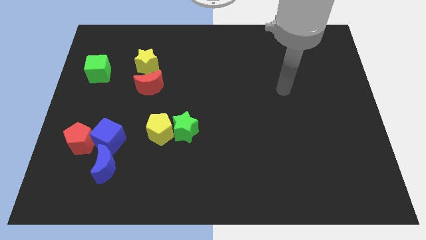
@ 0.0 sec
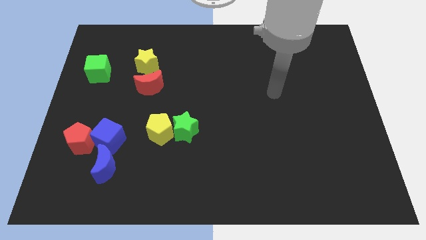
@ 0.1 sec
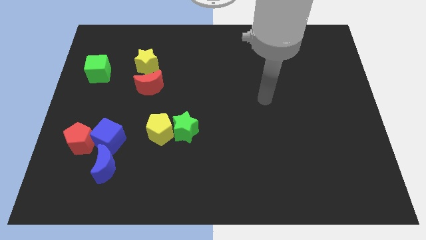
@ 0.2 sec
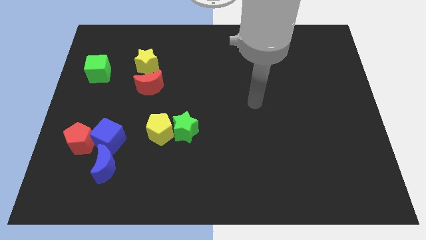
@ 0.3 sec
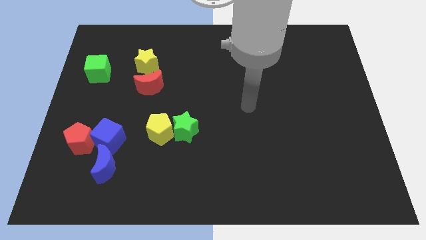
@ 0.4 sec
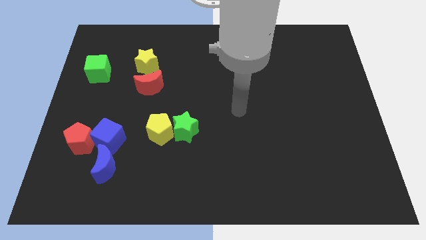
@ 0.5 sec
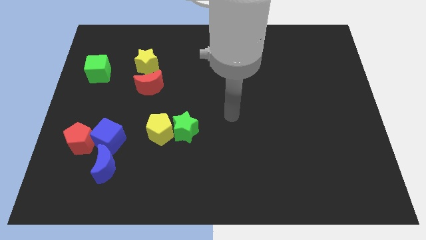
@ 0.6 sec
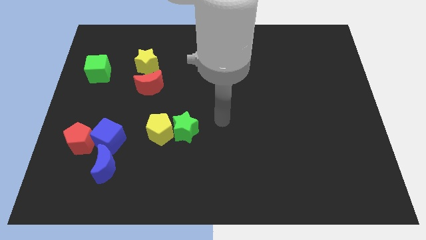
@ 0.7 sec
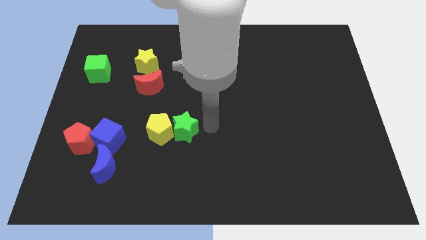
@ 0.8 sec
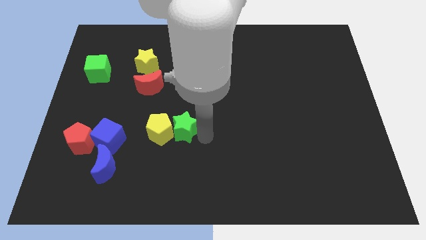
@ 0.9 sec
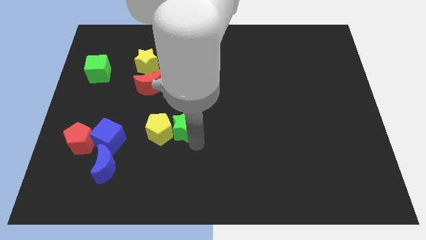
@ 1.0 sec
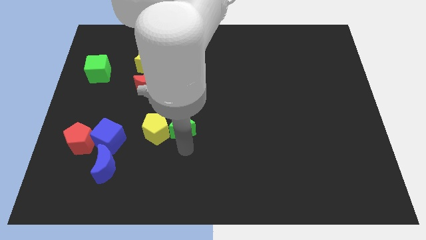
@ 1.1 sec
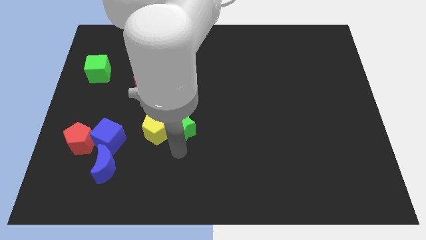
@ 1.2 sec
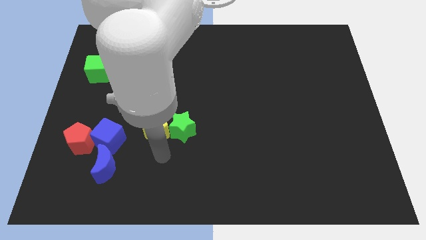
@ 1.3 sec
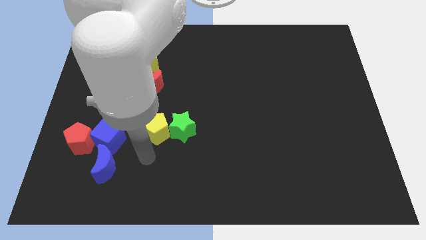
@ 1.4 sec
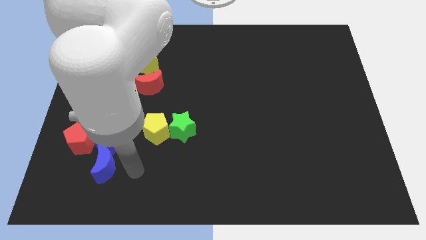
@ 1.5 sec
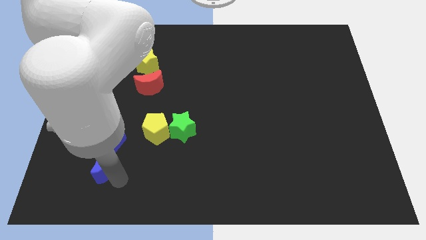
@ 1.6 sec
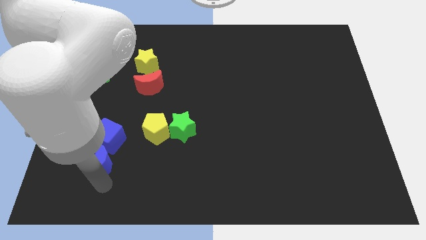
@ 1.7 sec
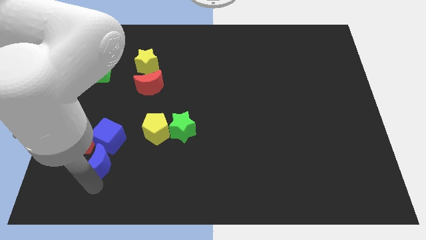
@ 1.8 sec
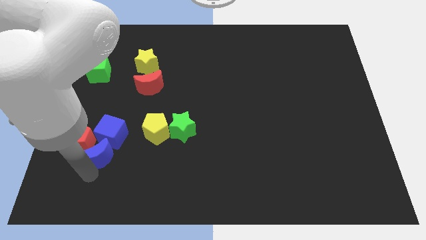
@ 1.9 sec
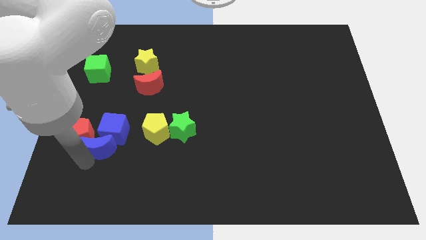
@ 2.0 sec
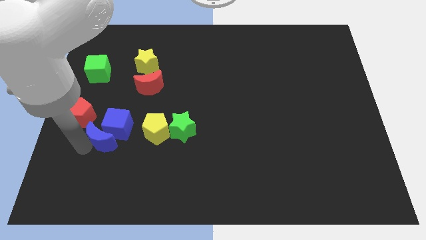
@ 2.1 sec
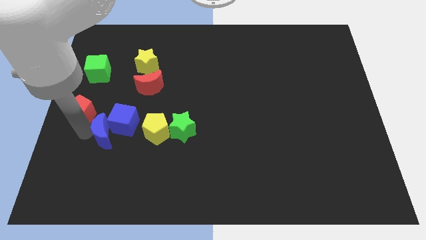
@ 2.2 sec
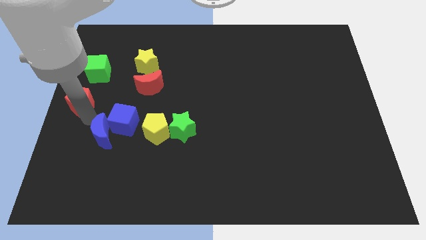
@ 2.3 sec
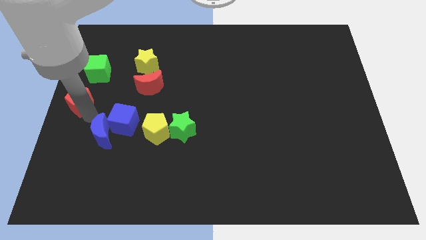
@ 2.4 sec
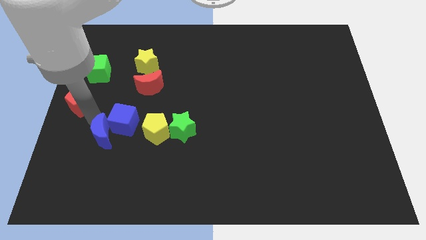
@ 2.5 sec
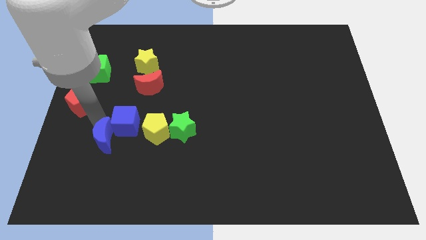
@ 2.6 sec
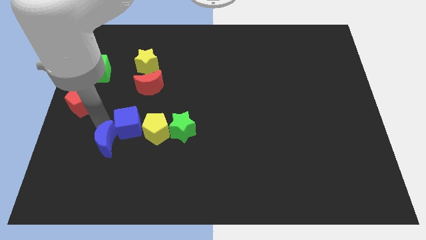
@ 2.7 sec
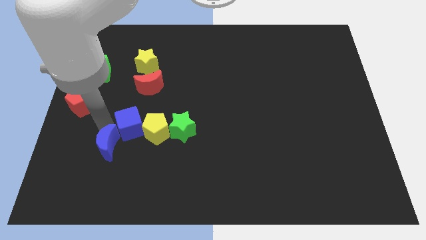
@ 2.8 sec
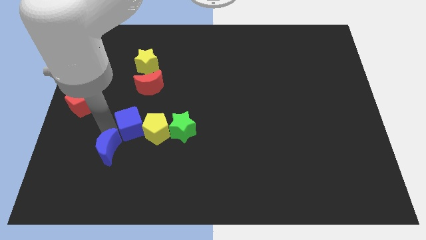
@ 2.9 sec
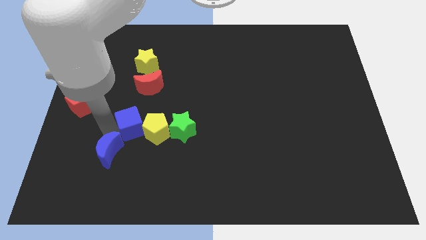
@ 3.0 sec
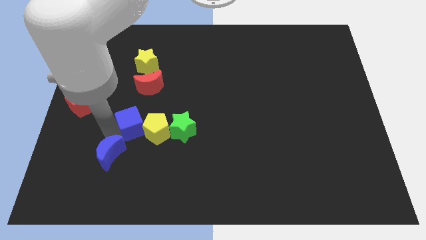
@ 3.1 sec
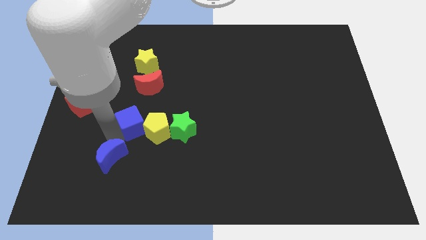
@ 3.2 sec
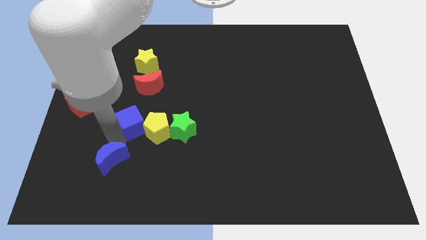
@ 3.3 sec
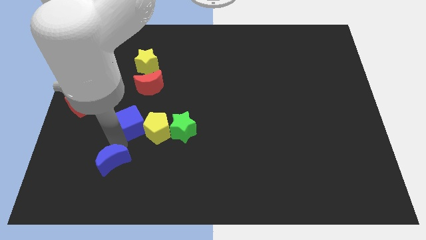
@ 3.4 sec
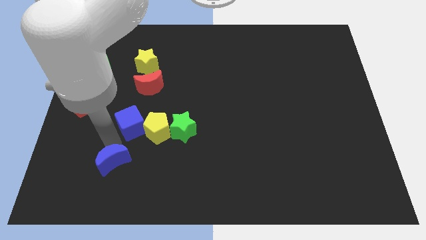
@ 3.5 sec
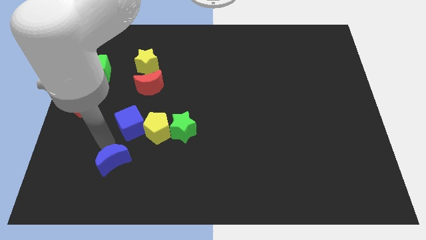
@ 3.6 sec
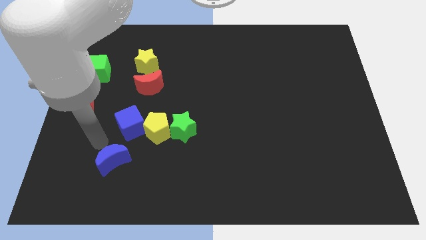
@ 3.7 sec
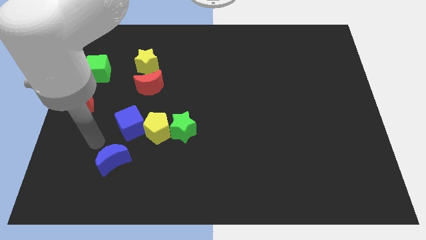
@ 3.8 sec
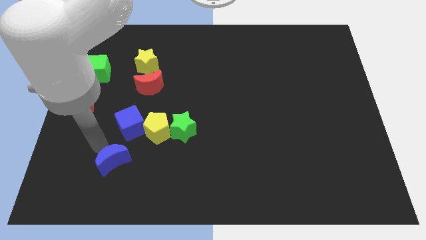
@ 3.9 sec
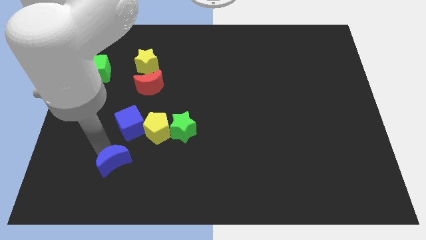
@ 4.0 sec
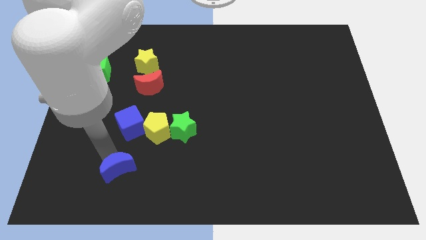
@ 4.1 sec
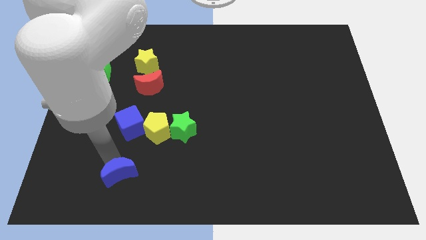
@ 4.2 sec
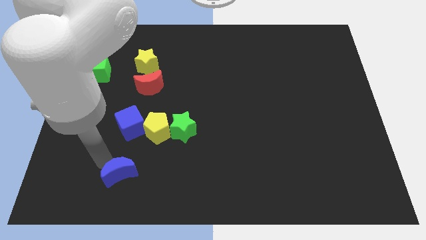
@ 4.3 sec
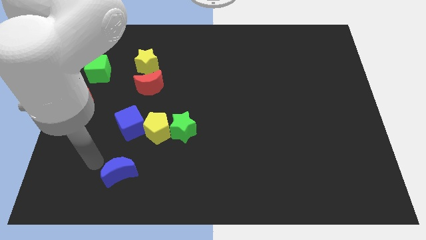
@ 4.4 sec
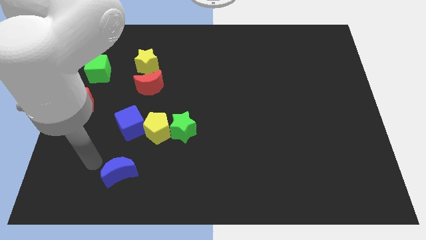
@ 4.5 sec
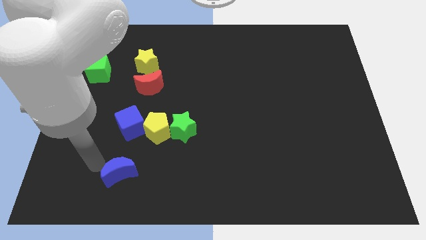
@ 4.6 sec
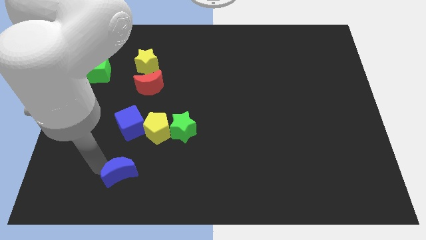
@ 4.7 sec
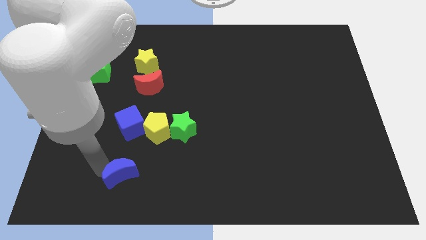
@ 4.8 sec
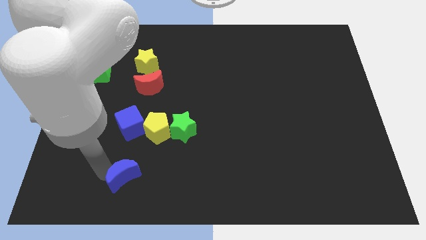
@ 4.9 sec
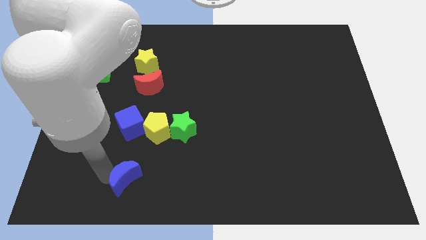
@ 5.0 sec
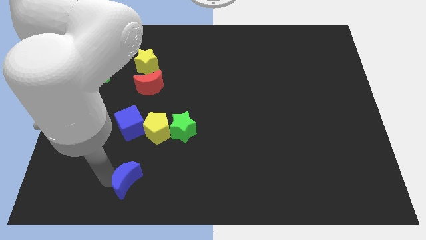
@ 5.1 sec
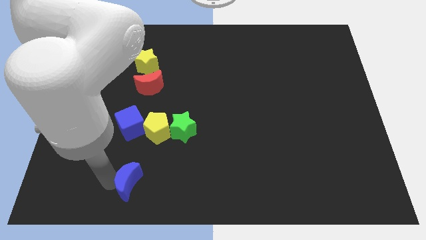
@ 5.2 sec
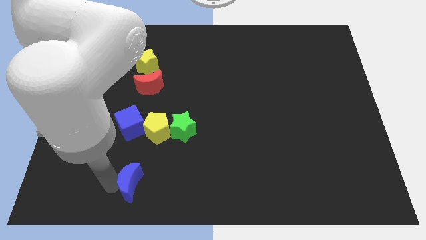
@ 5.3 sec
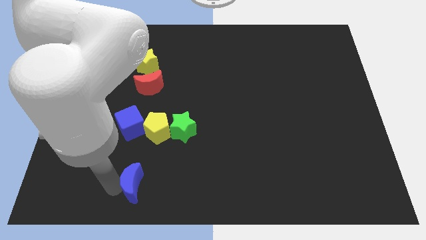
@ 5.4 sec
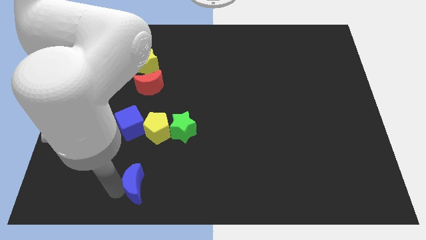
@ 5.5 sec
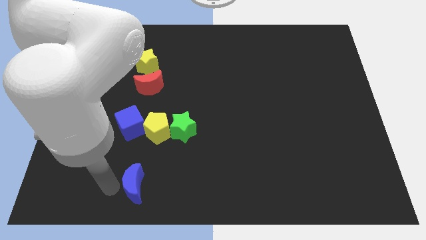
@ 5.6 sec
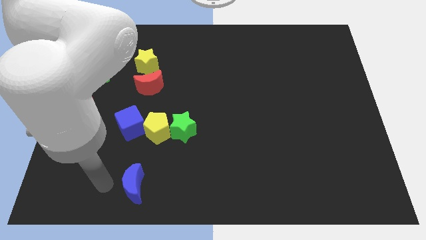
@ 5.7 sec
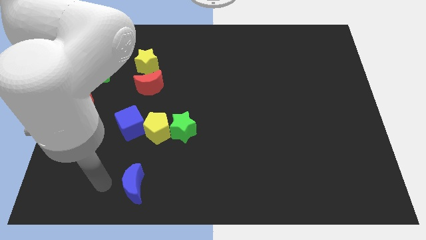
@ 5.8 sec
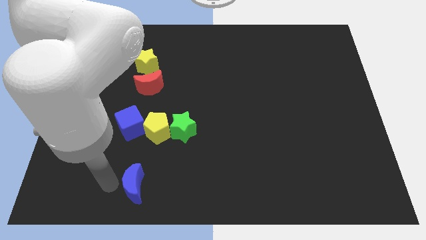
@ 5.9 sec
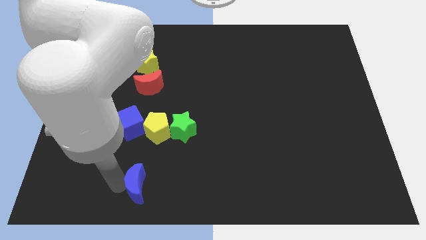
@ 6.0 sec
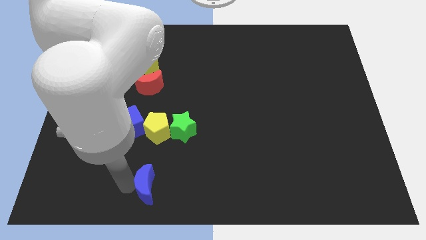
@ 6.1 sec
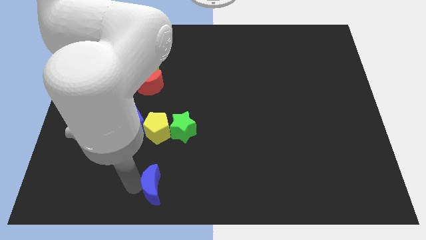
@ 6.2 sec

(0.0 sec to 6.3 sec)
slide the blue moon to the bottom side
